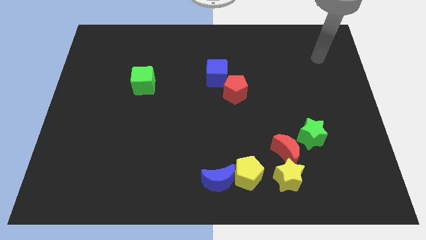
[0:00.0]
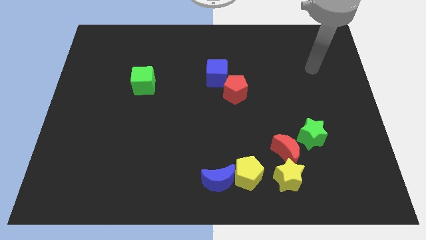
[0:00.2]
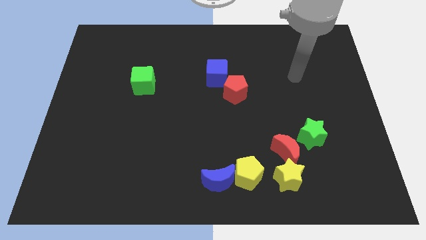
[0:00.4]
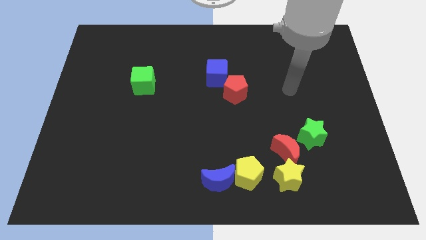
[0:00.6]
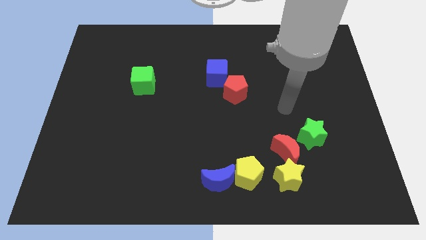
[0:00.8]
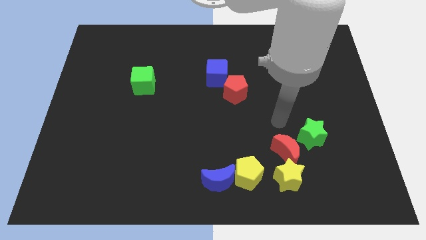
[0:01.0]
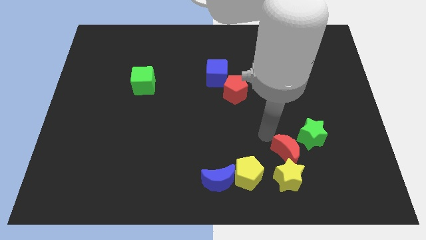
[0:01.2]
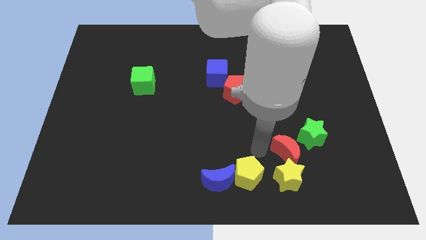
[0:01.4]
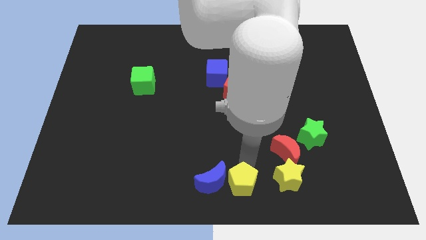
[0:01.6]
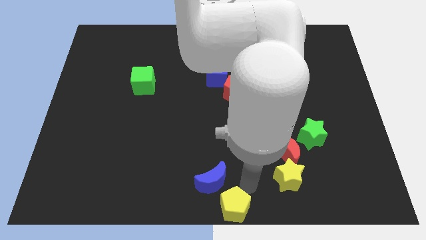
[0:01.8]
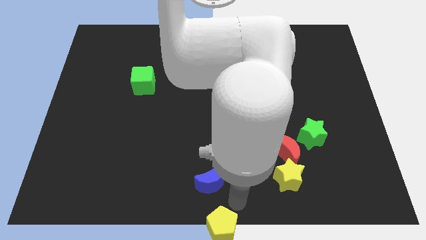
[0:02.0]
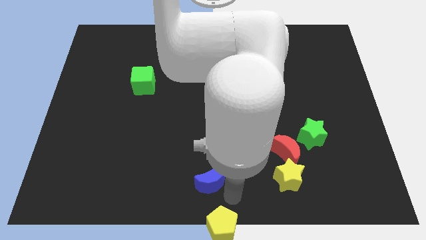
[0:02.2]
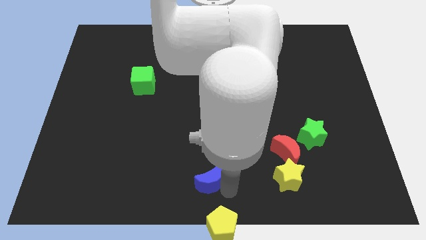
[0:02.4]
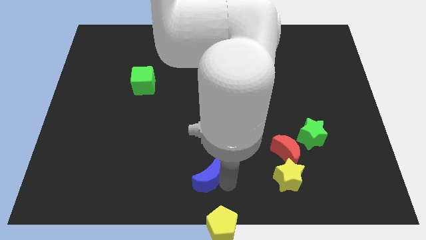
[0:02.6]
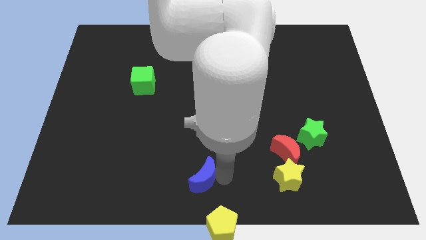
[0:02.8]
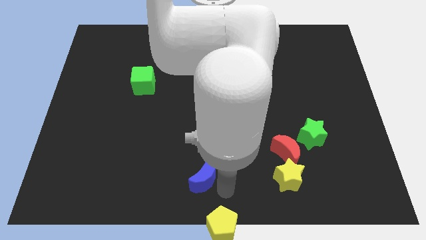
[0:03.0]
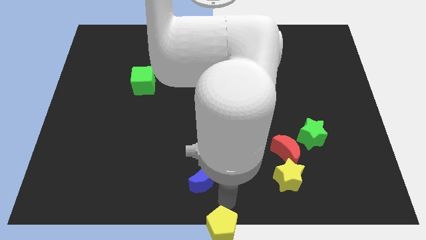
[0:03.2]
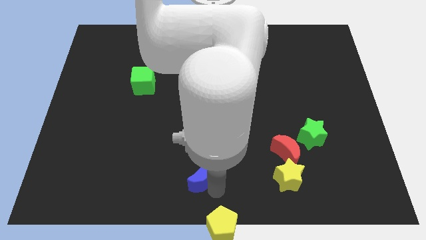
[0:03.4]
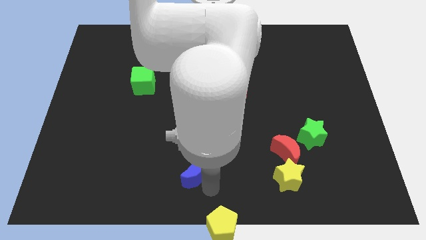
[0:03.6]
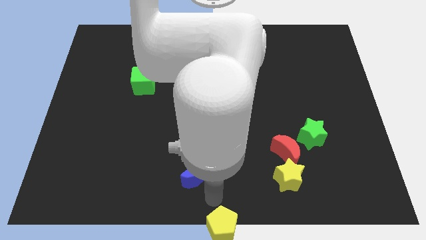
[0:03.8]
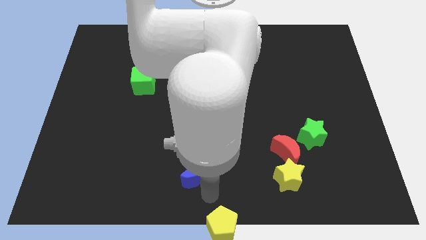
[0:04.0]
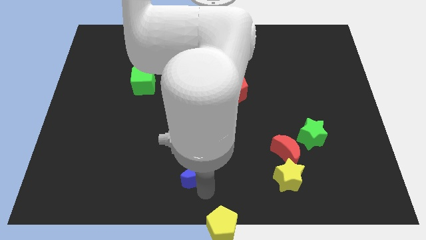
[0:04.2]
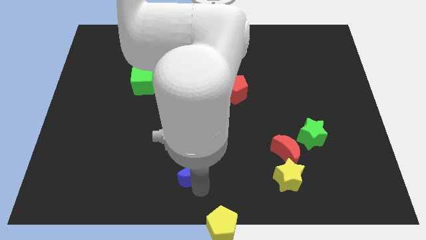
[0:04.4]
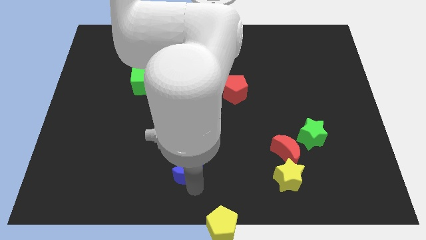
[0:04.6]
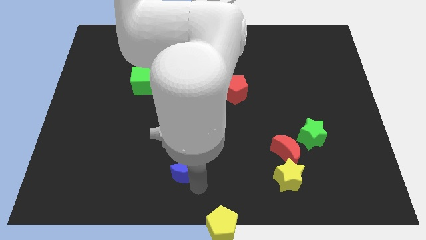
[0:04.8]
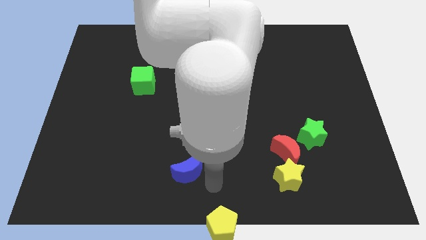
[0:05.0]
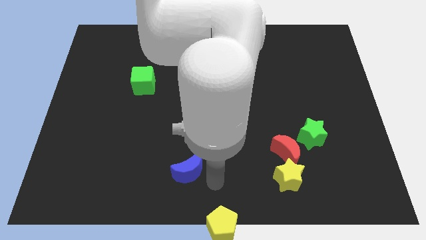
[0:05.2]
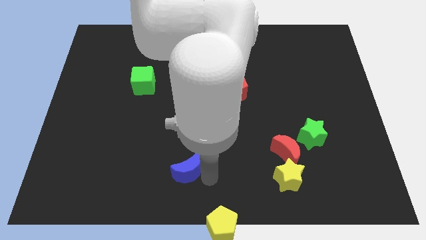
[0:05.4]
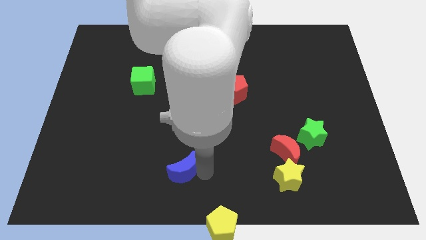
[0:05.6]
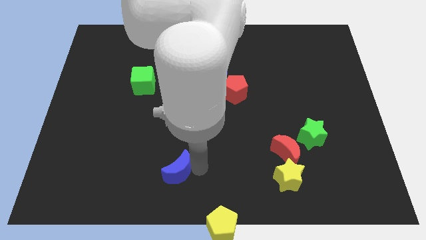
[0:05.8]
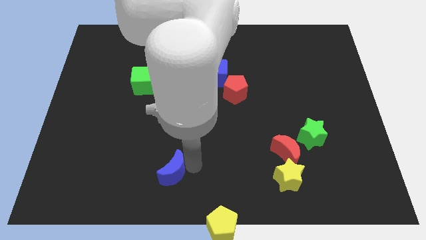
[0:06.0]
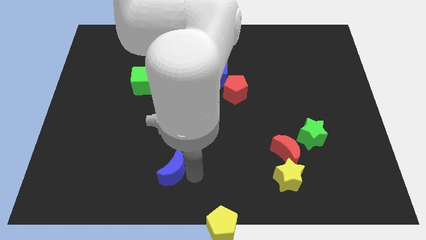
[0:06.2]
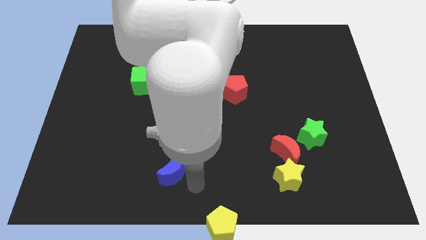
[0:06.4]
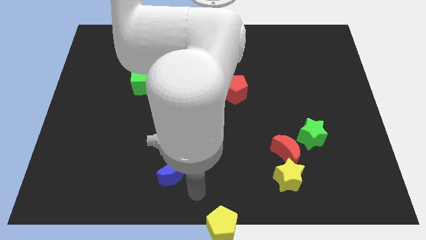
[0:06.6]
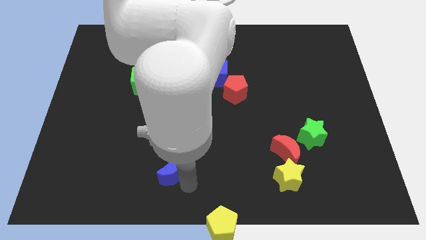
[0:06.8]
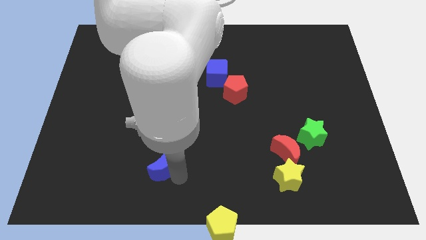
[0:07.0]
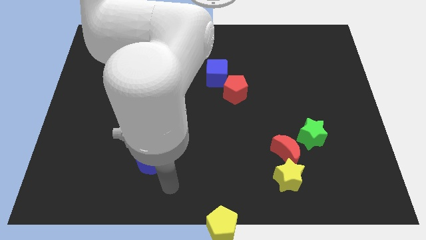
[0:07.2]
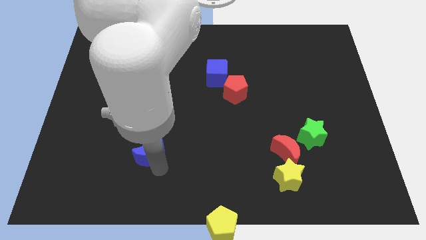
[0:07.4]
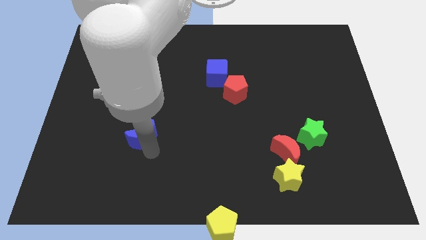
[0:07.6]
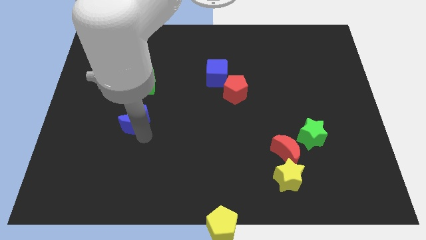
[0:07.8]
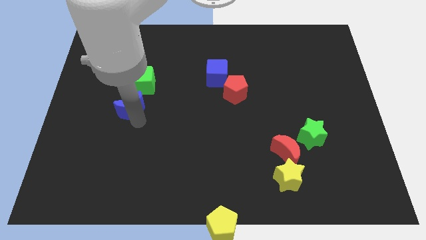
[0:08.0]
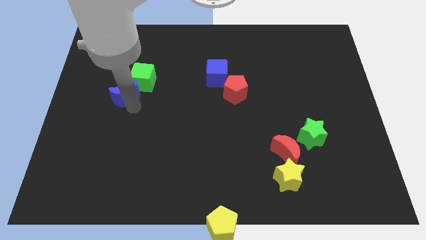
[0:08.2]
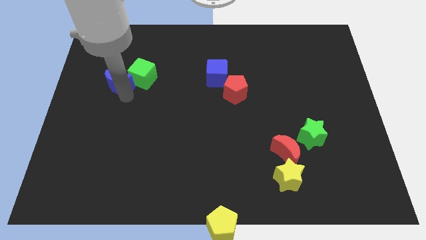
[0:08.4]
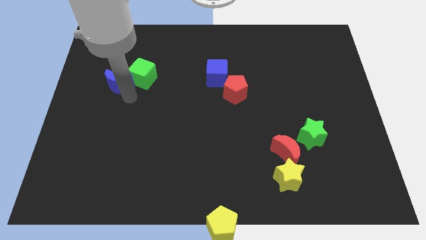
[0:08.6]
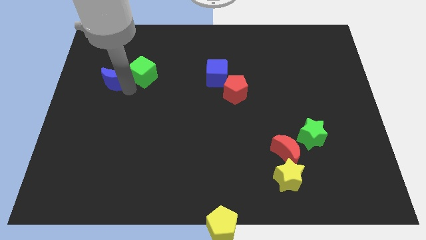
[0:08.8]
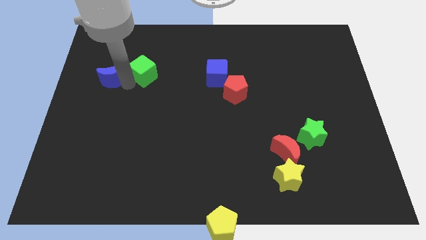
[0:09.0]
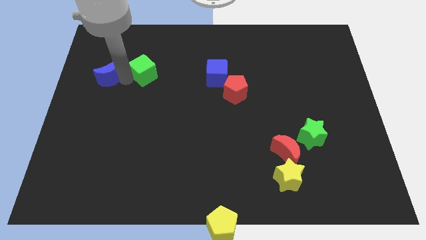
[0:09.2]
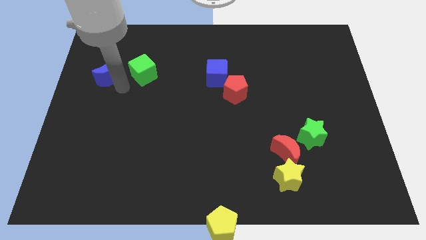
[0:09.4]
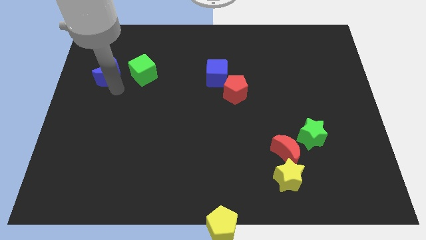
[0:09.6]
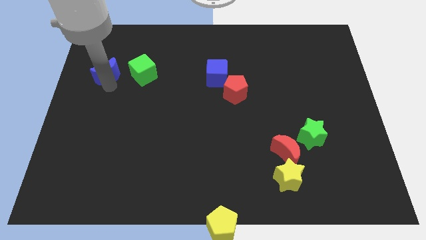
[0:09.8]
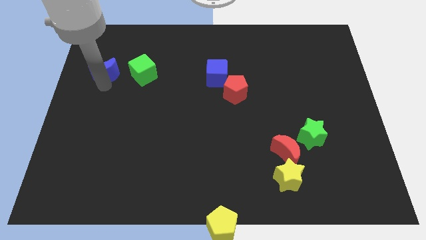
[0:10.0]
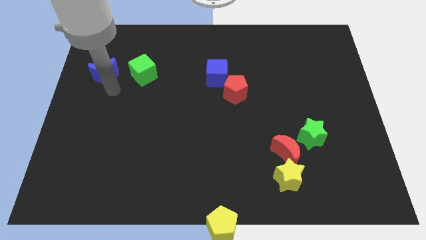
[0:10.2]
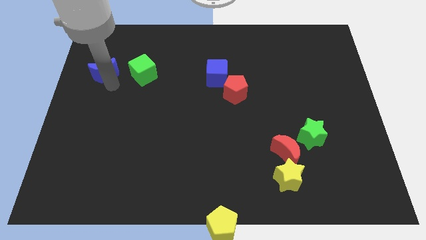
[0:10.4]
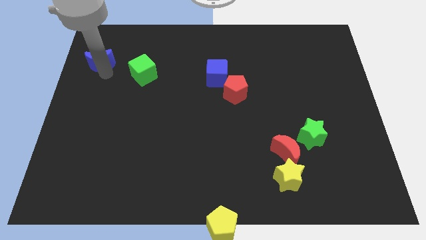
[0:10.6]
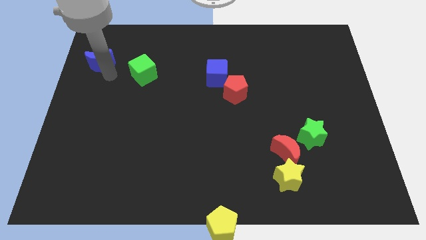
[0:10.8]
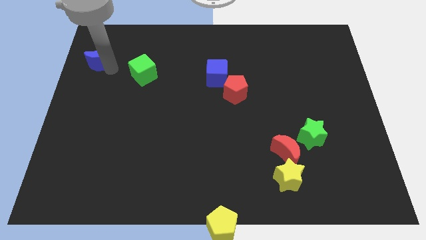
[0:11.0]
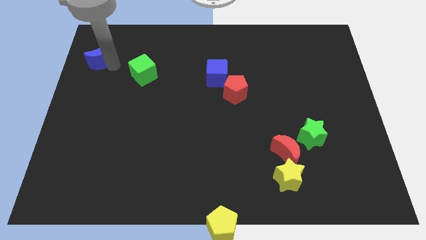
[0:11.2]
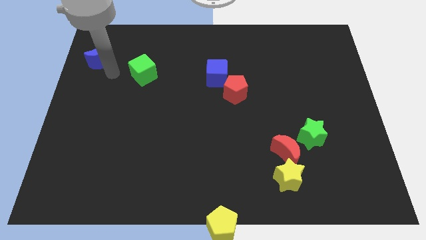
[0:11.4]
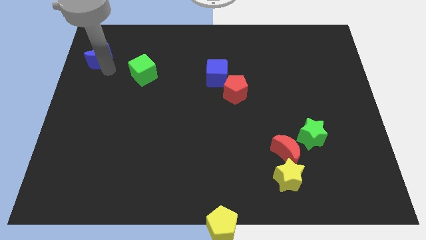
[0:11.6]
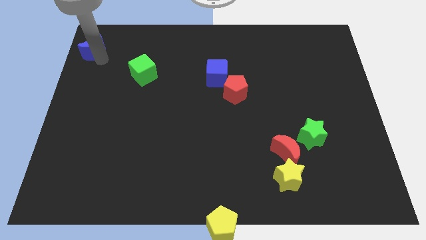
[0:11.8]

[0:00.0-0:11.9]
push the blue moon to the top left of the board

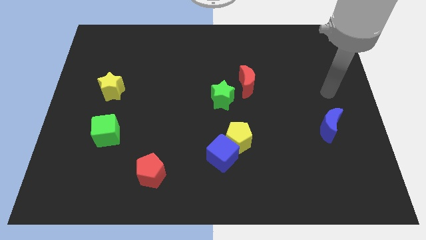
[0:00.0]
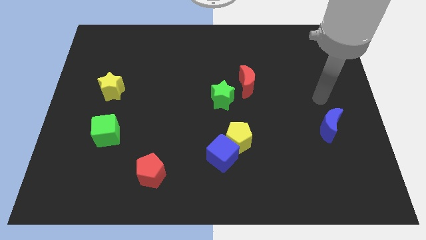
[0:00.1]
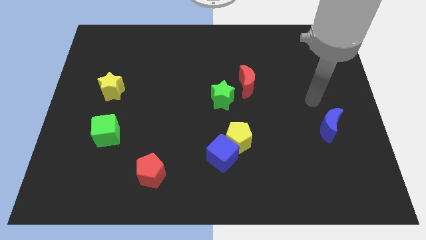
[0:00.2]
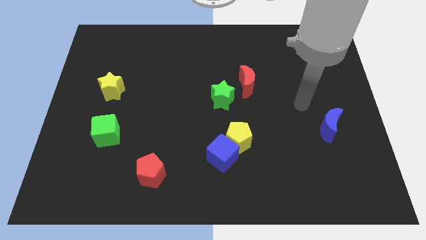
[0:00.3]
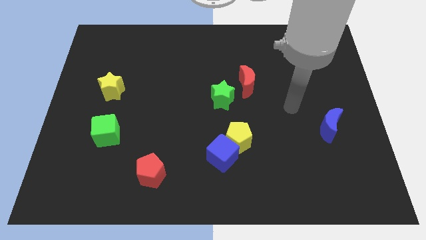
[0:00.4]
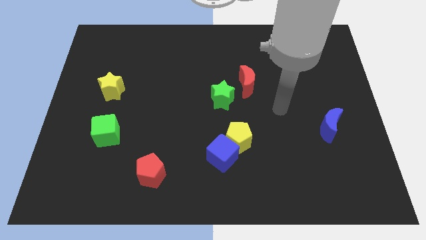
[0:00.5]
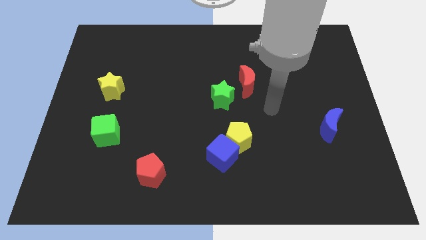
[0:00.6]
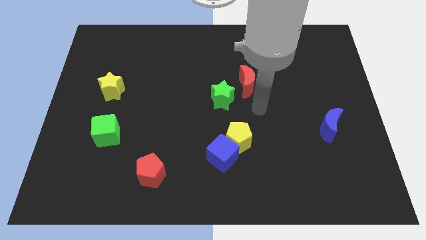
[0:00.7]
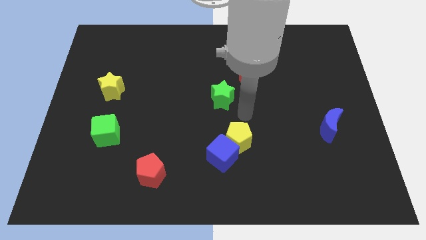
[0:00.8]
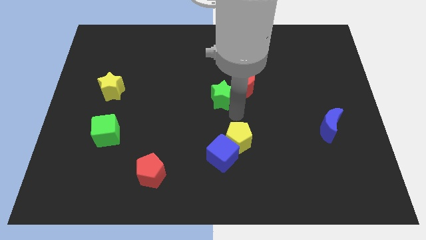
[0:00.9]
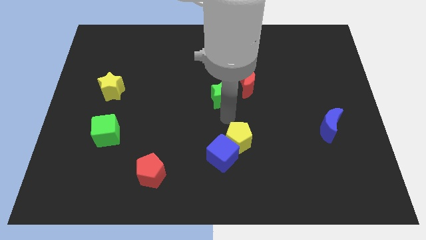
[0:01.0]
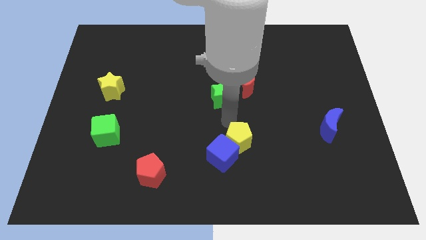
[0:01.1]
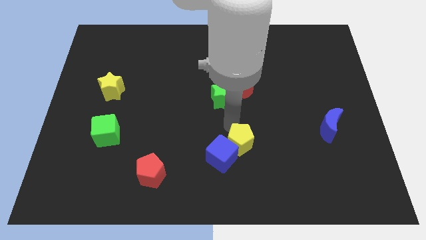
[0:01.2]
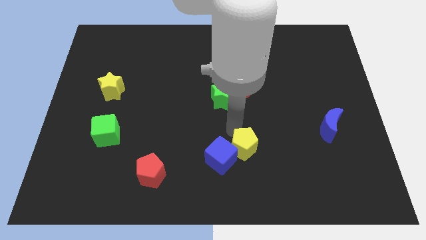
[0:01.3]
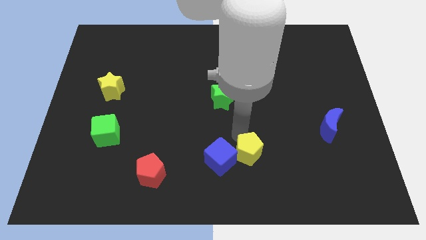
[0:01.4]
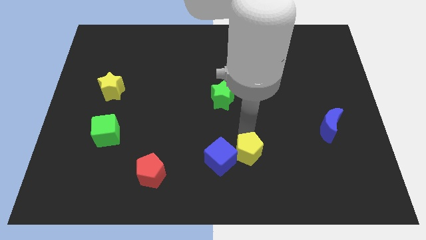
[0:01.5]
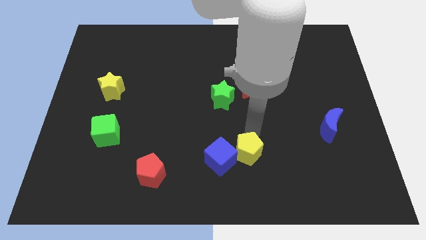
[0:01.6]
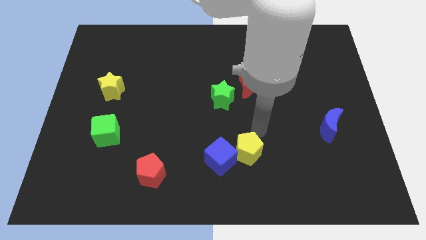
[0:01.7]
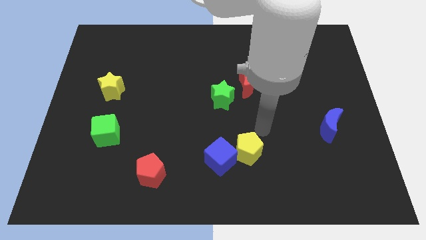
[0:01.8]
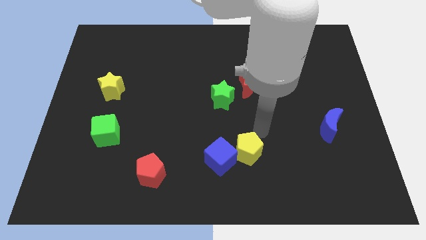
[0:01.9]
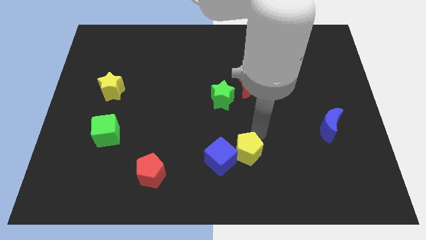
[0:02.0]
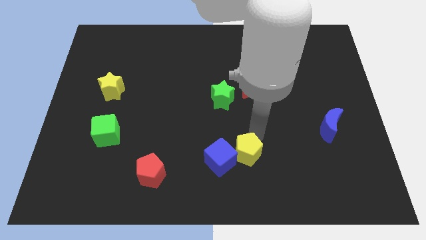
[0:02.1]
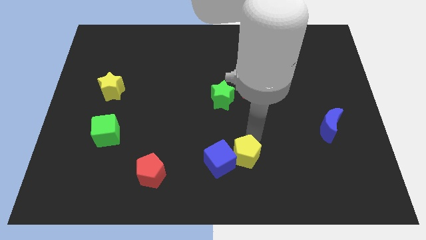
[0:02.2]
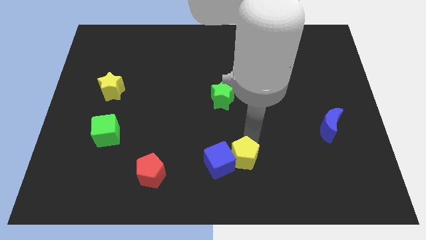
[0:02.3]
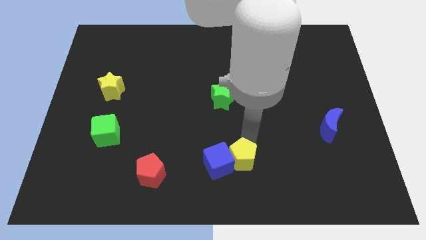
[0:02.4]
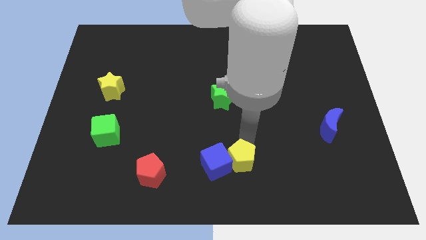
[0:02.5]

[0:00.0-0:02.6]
move the yellow pentagon to the bottom
